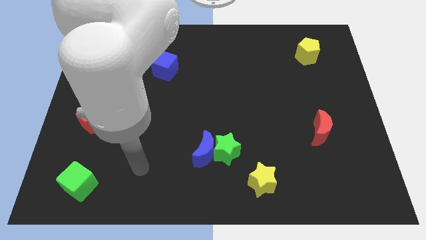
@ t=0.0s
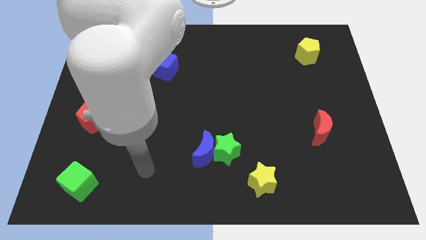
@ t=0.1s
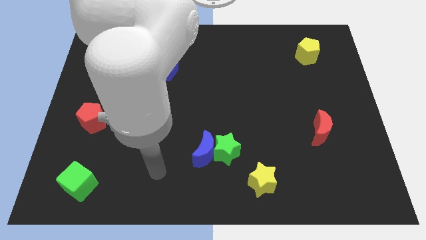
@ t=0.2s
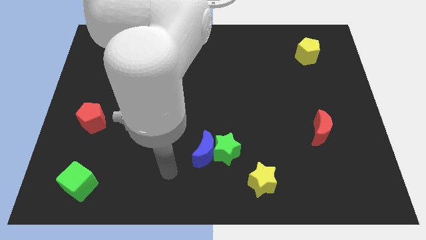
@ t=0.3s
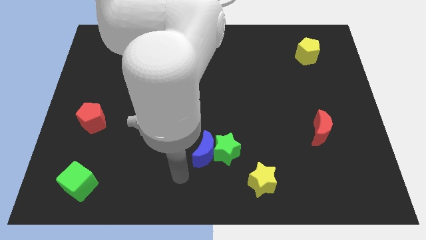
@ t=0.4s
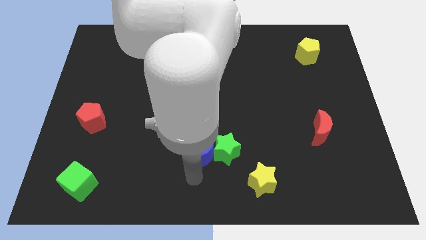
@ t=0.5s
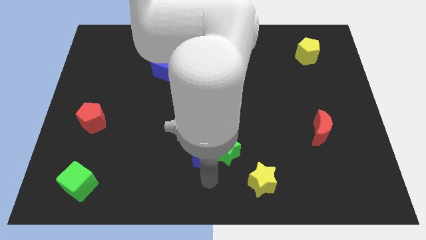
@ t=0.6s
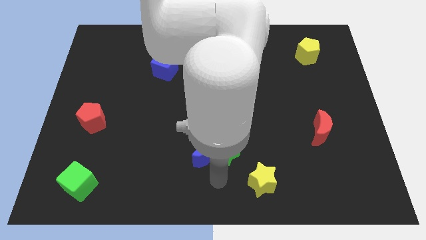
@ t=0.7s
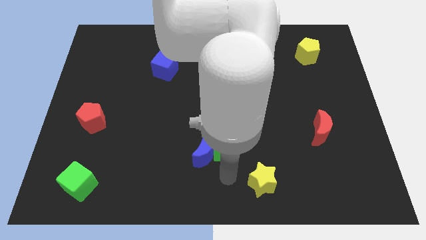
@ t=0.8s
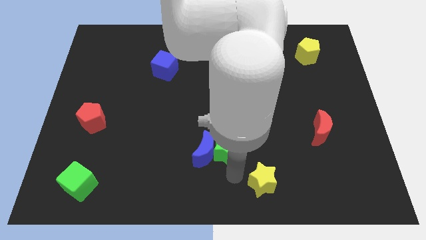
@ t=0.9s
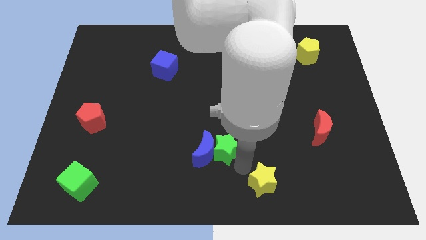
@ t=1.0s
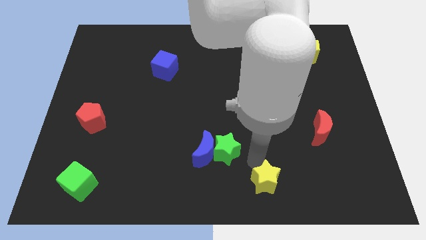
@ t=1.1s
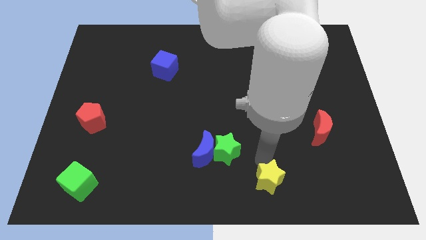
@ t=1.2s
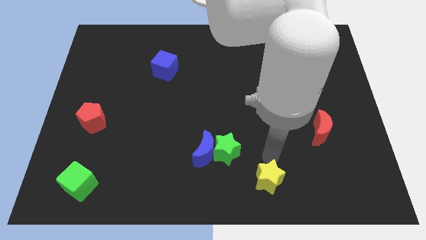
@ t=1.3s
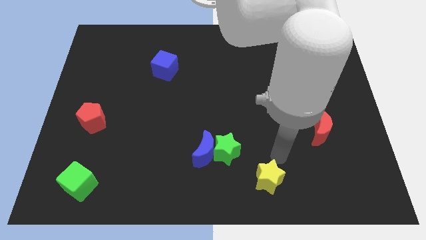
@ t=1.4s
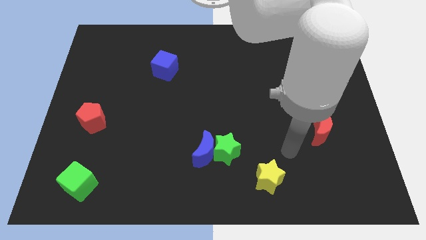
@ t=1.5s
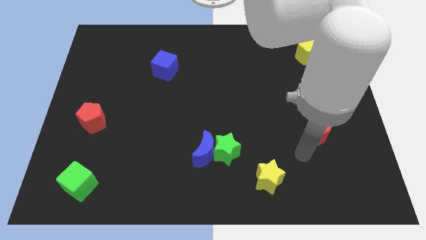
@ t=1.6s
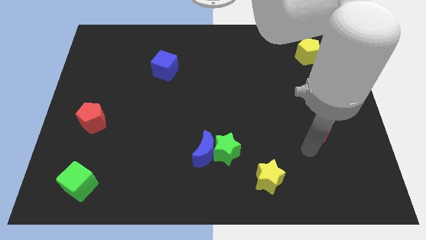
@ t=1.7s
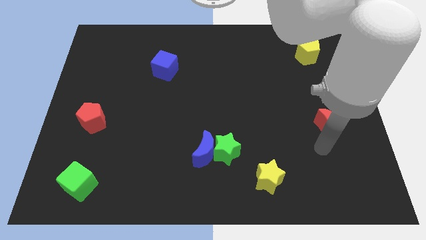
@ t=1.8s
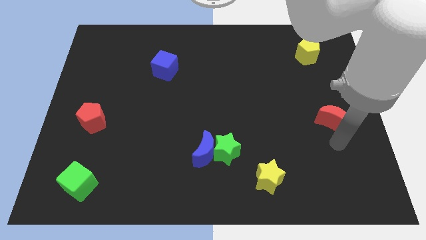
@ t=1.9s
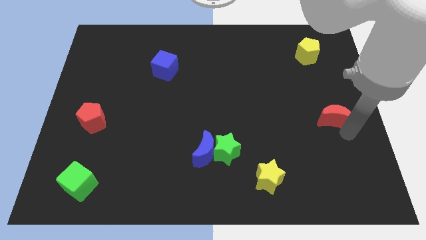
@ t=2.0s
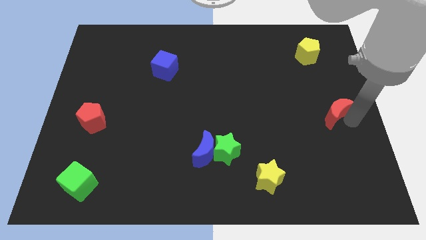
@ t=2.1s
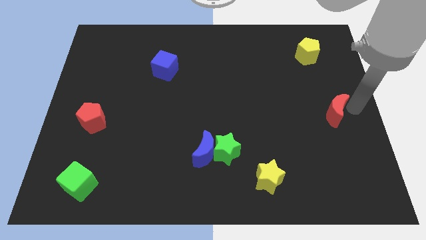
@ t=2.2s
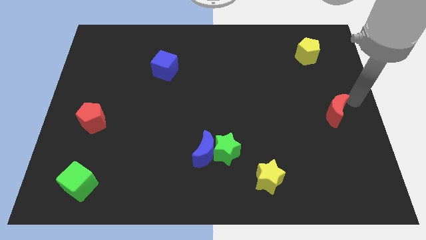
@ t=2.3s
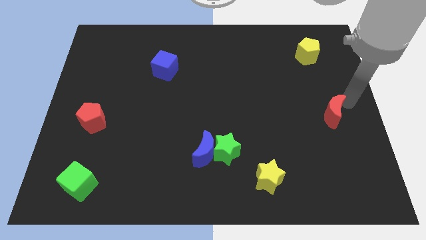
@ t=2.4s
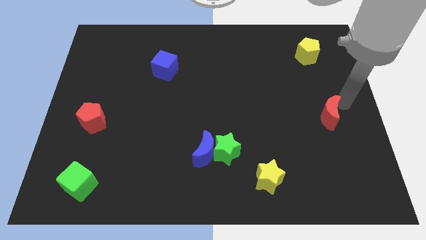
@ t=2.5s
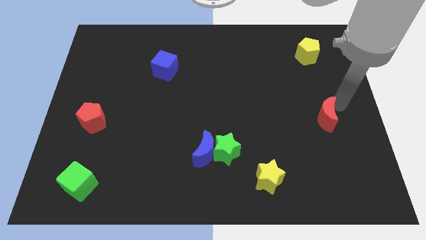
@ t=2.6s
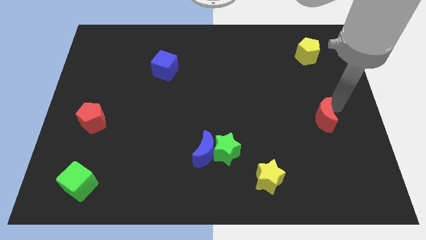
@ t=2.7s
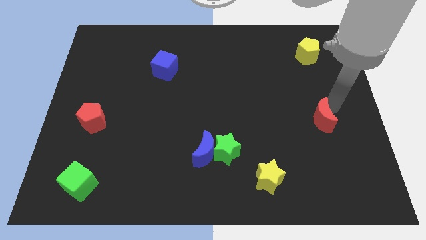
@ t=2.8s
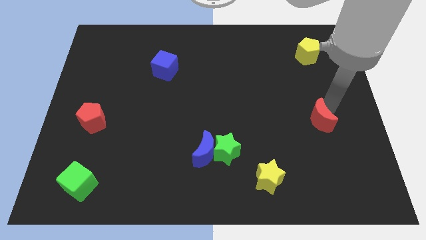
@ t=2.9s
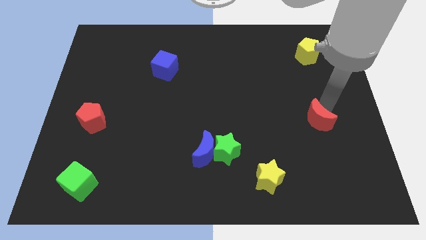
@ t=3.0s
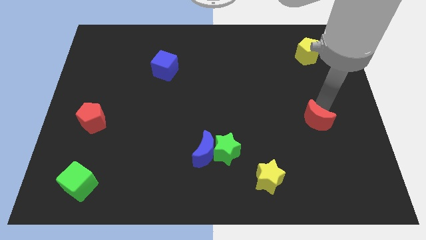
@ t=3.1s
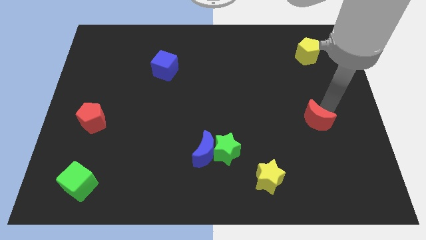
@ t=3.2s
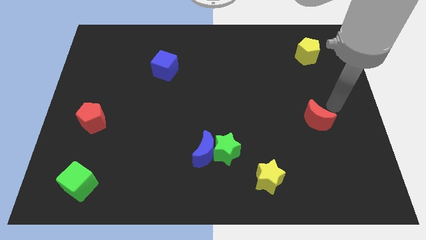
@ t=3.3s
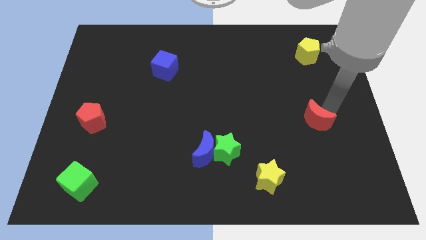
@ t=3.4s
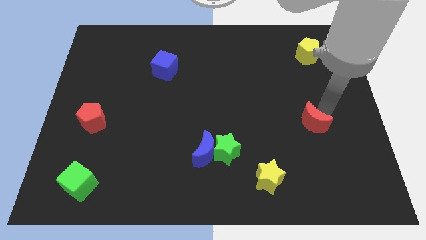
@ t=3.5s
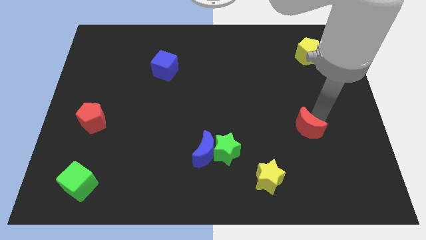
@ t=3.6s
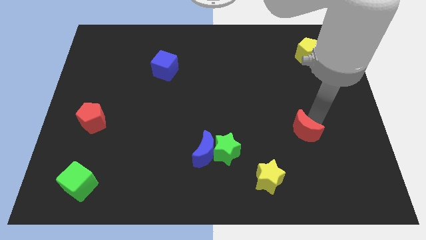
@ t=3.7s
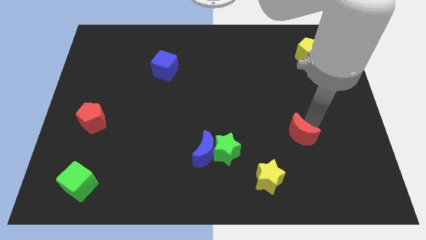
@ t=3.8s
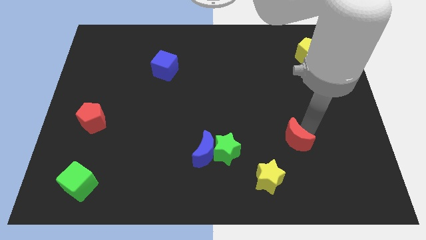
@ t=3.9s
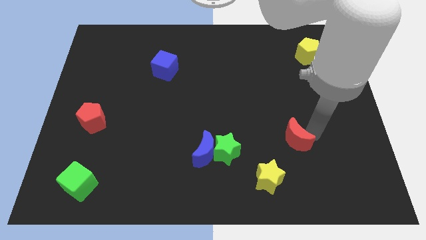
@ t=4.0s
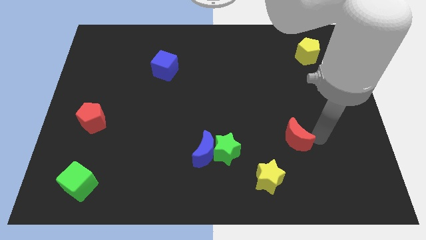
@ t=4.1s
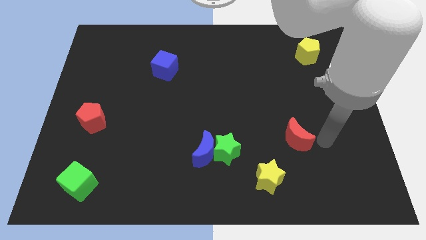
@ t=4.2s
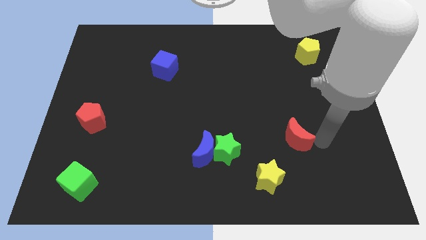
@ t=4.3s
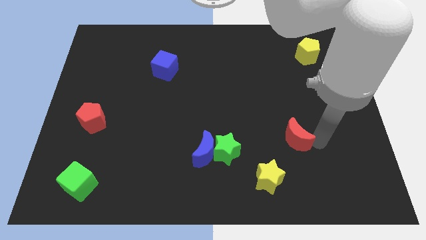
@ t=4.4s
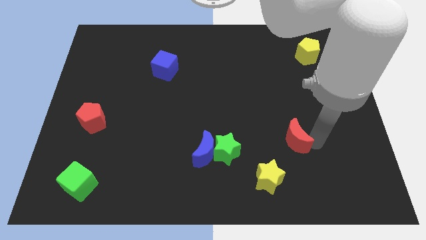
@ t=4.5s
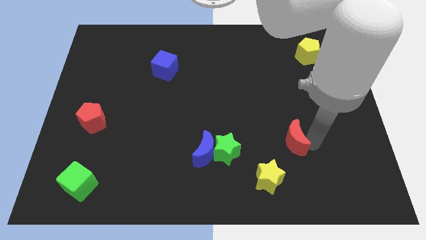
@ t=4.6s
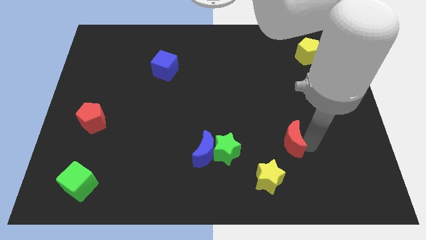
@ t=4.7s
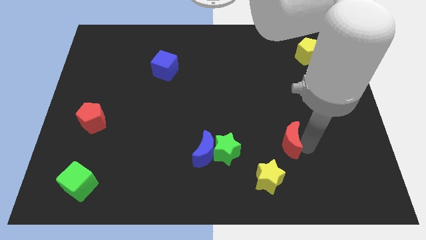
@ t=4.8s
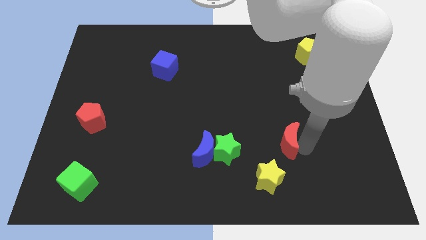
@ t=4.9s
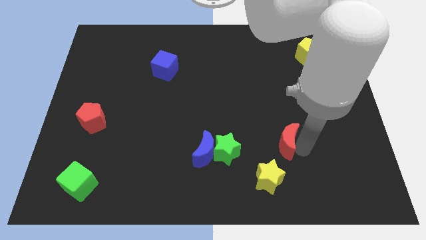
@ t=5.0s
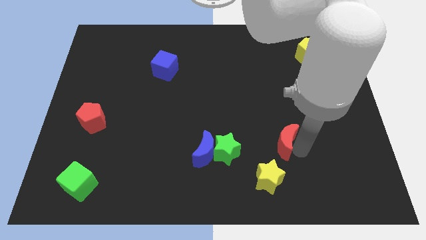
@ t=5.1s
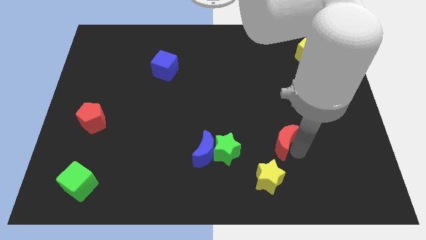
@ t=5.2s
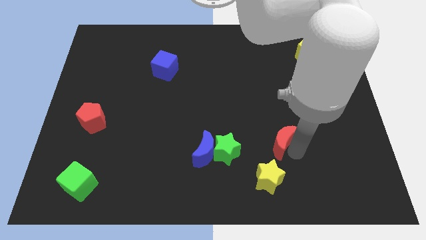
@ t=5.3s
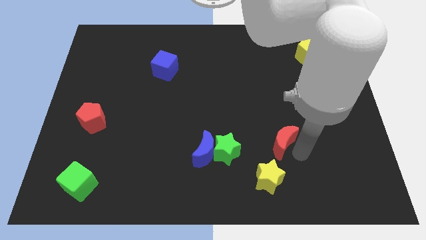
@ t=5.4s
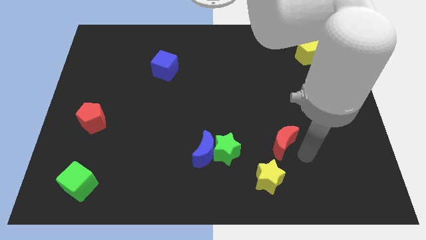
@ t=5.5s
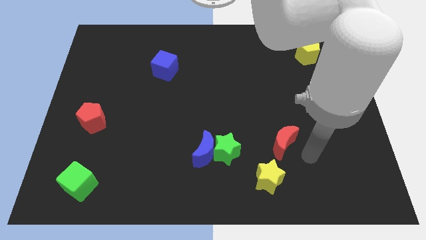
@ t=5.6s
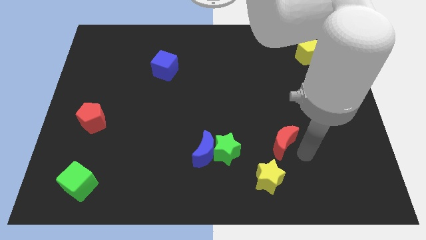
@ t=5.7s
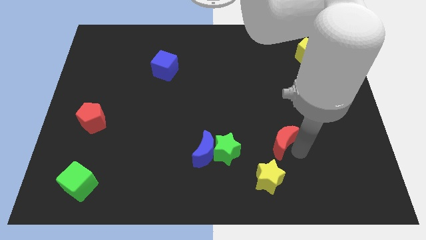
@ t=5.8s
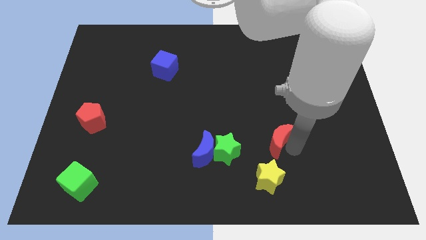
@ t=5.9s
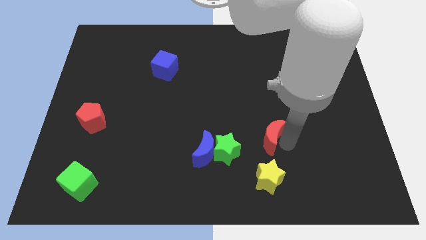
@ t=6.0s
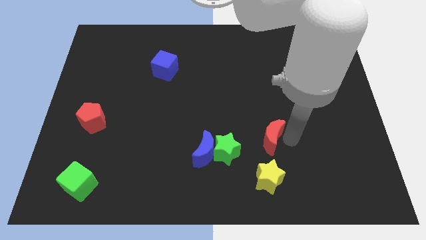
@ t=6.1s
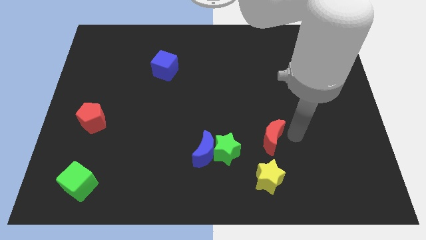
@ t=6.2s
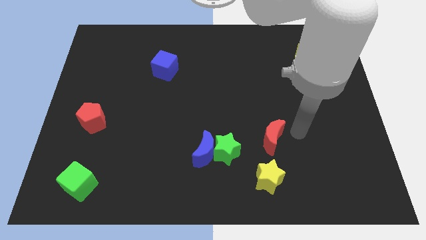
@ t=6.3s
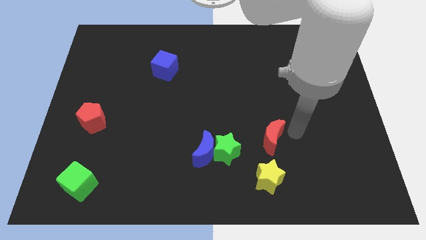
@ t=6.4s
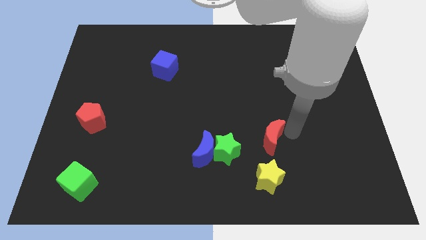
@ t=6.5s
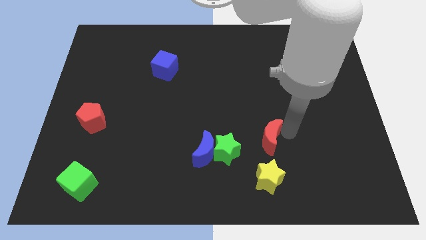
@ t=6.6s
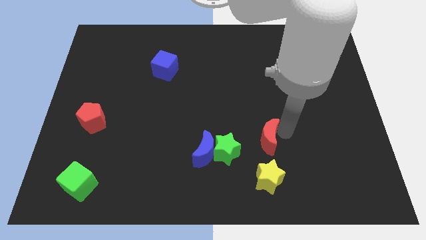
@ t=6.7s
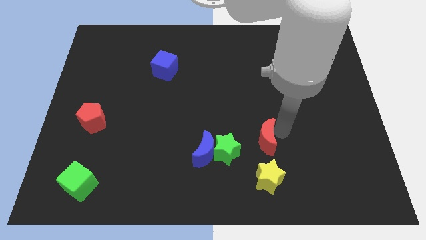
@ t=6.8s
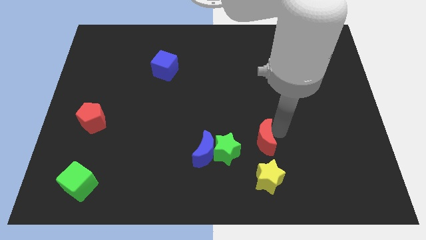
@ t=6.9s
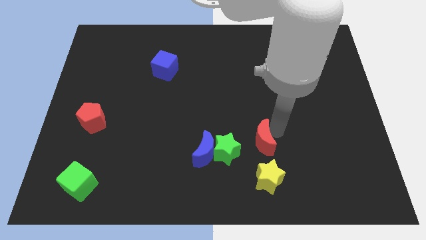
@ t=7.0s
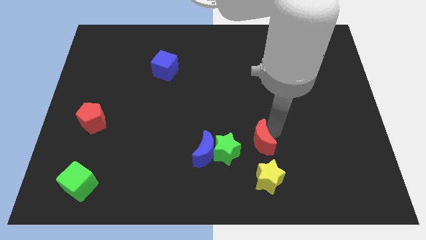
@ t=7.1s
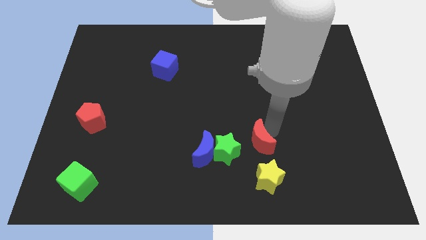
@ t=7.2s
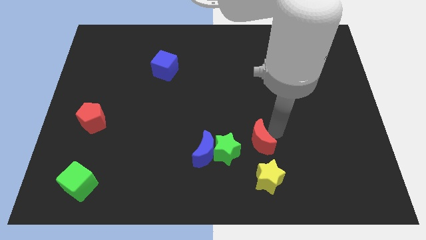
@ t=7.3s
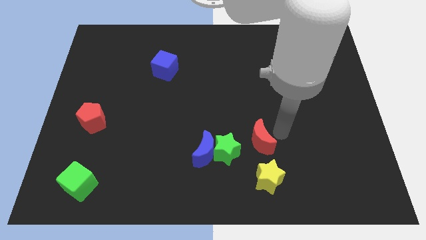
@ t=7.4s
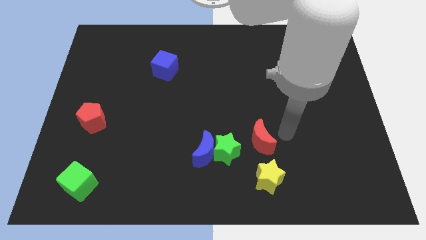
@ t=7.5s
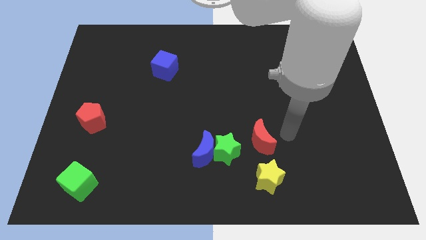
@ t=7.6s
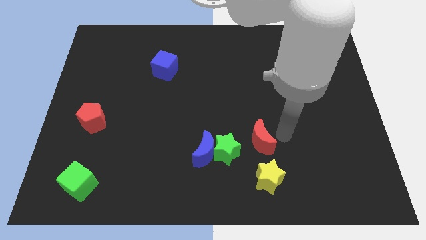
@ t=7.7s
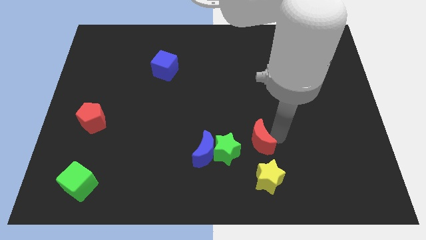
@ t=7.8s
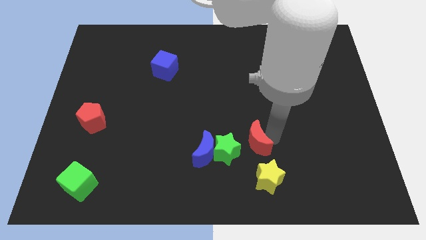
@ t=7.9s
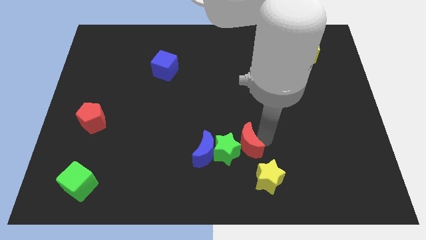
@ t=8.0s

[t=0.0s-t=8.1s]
move the red moon to the green star
